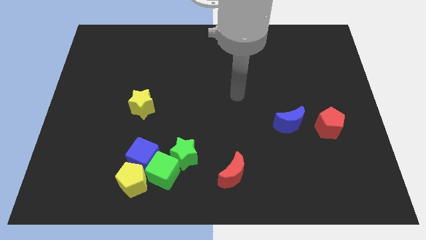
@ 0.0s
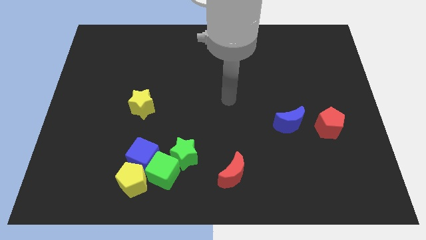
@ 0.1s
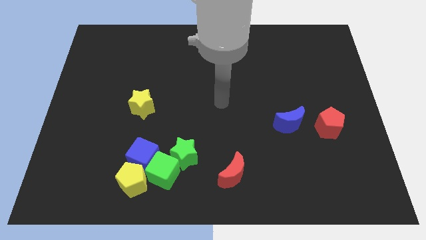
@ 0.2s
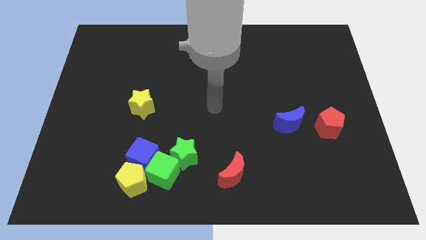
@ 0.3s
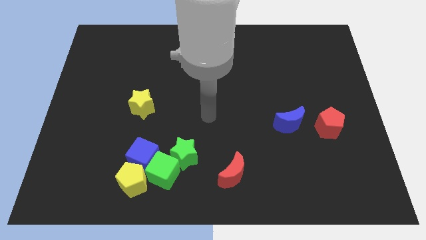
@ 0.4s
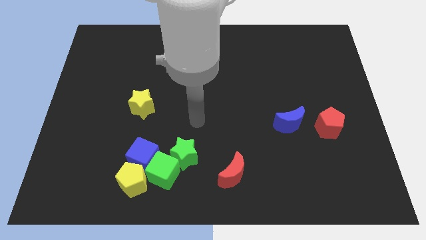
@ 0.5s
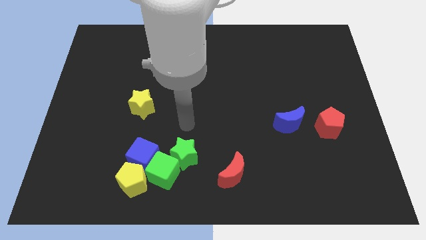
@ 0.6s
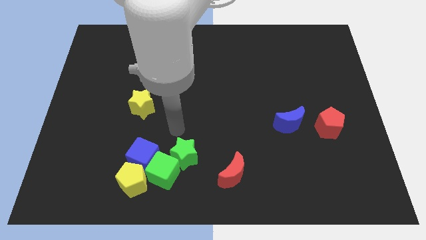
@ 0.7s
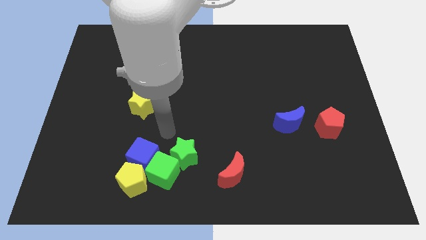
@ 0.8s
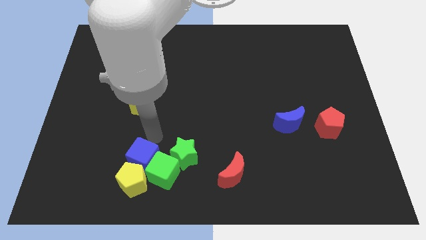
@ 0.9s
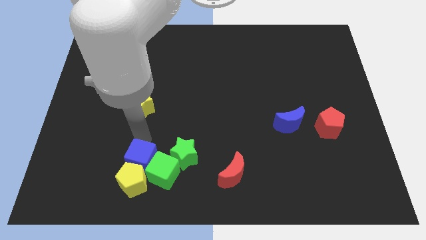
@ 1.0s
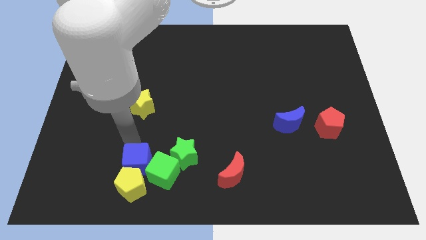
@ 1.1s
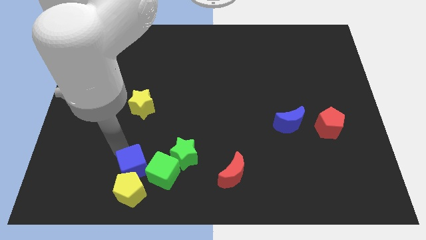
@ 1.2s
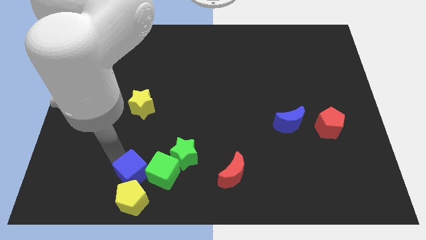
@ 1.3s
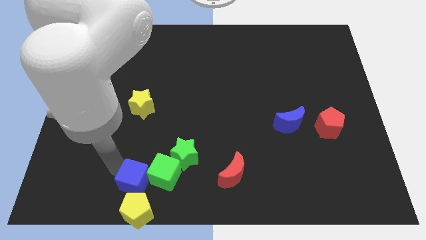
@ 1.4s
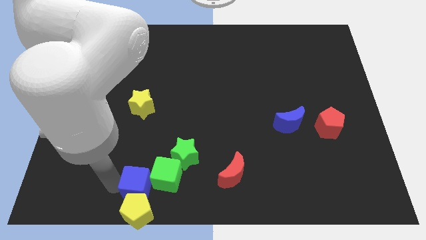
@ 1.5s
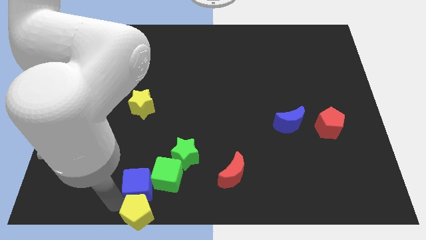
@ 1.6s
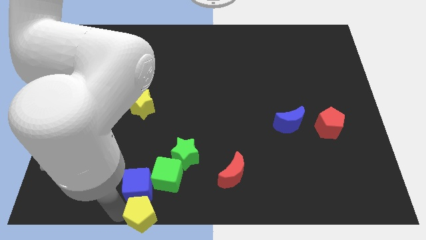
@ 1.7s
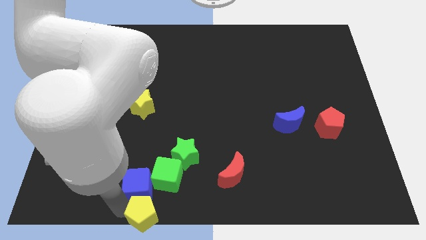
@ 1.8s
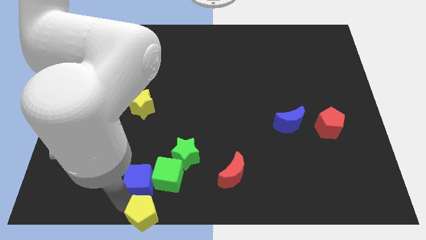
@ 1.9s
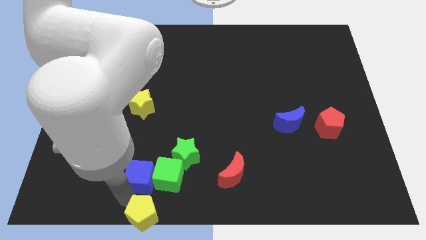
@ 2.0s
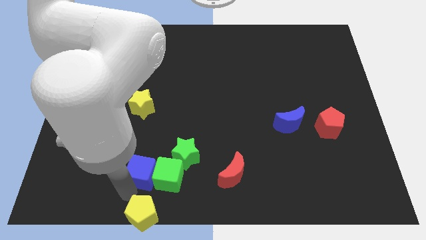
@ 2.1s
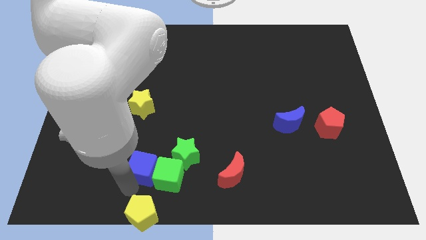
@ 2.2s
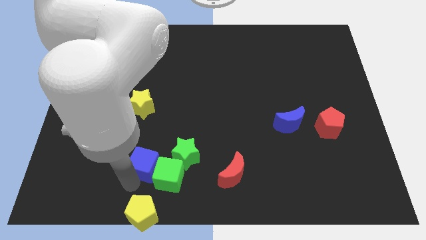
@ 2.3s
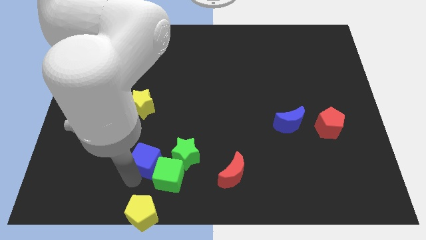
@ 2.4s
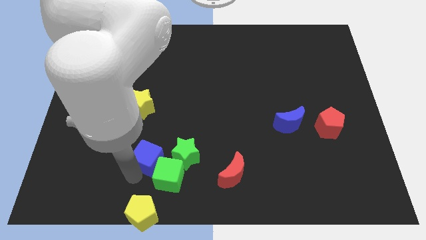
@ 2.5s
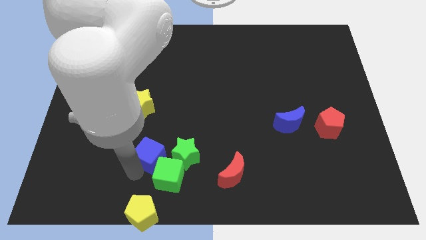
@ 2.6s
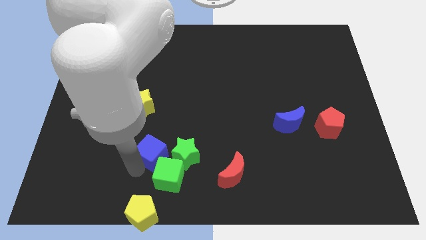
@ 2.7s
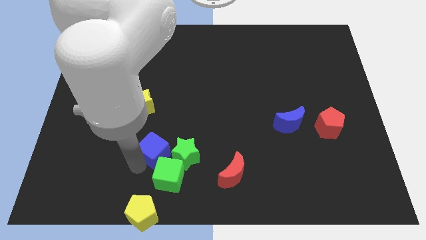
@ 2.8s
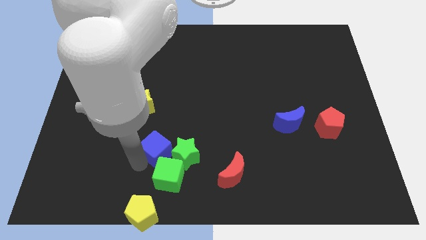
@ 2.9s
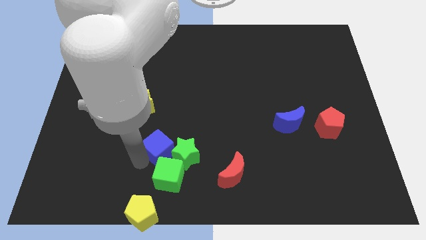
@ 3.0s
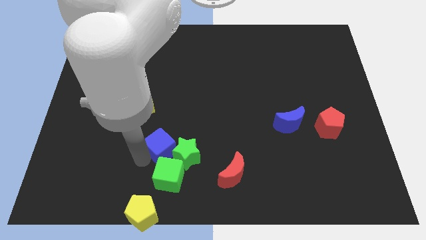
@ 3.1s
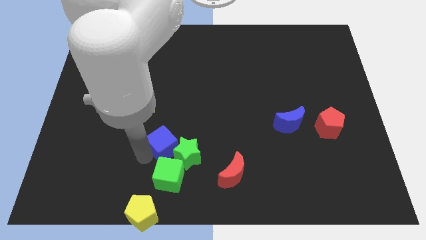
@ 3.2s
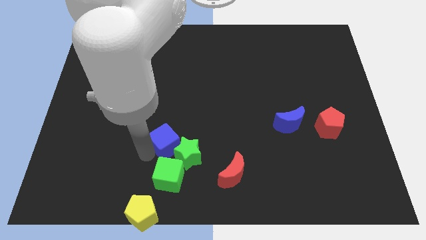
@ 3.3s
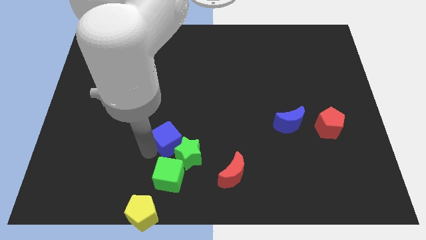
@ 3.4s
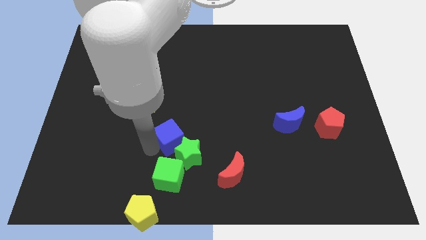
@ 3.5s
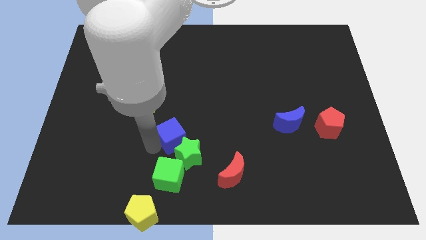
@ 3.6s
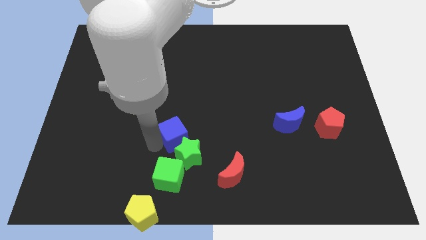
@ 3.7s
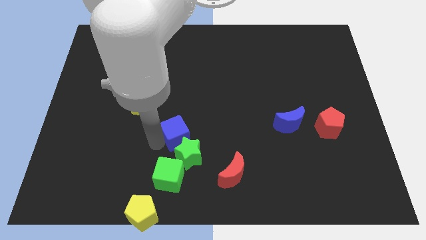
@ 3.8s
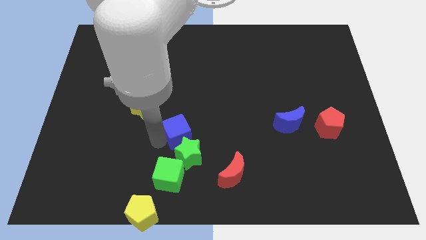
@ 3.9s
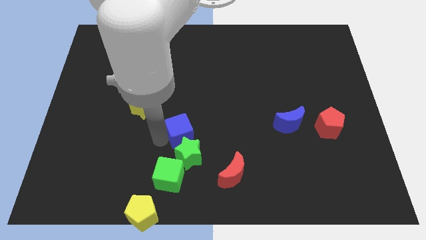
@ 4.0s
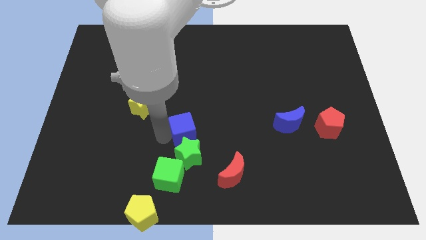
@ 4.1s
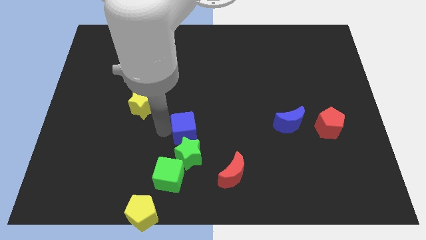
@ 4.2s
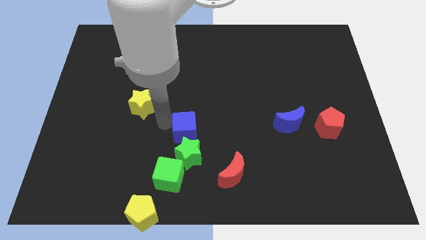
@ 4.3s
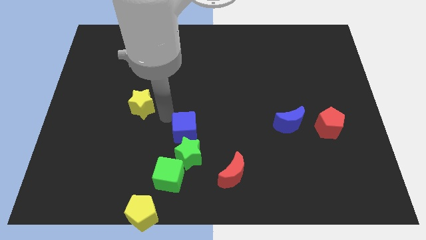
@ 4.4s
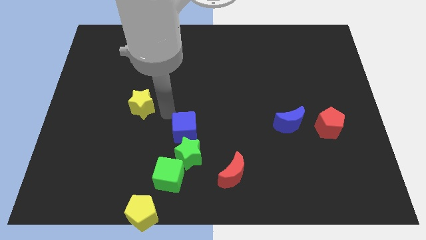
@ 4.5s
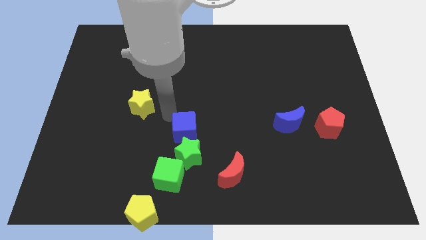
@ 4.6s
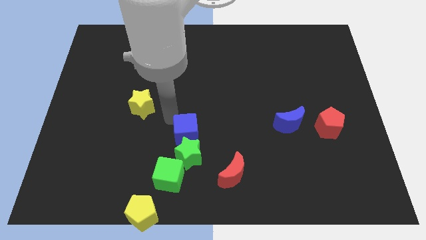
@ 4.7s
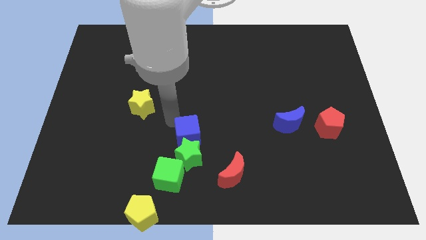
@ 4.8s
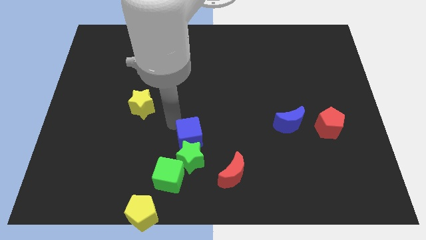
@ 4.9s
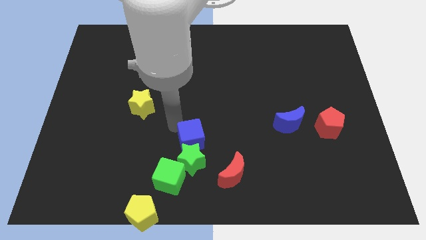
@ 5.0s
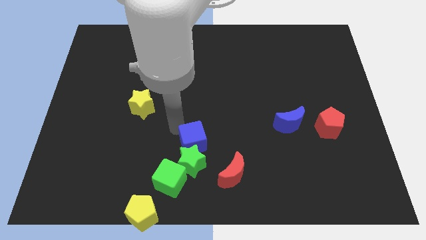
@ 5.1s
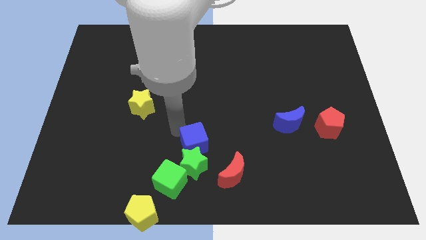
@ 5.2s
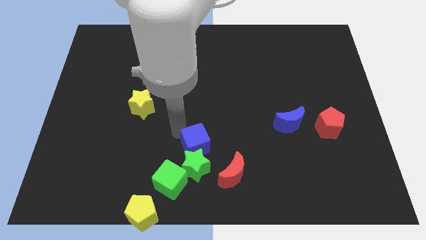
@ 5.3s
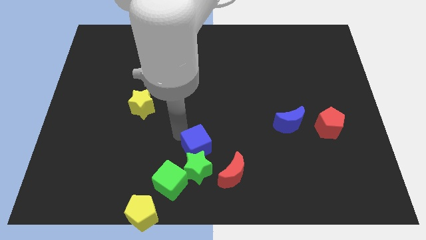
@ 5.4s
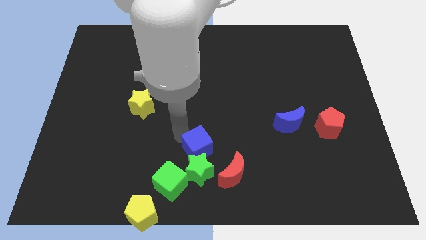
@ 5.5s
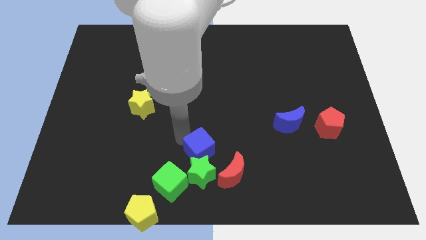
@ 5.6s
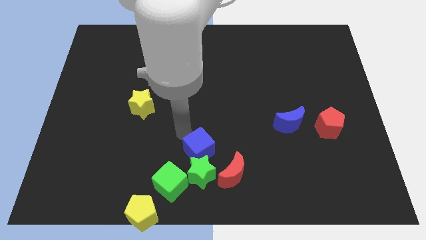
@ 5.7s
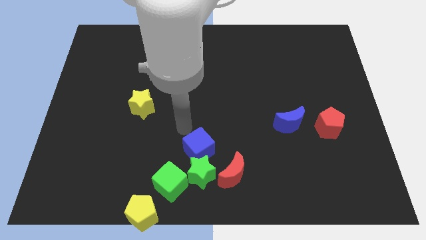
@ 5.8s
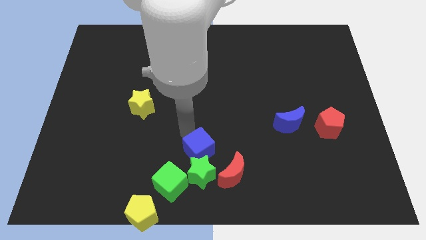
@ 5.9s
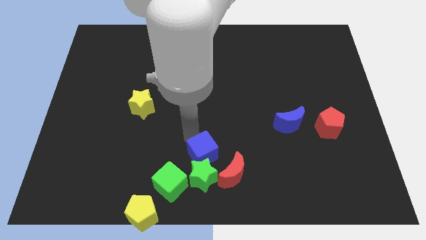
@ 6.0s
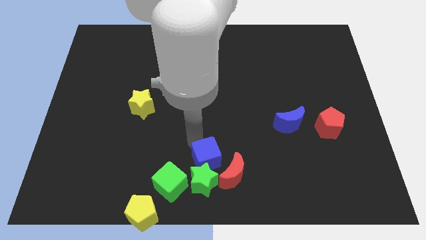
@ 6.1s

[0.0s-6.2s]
push the blue cube to the bottom

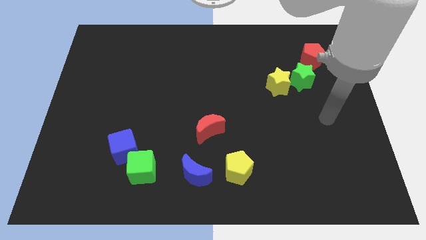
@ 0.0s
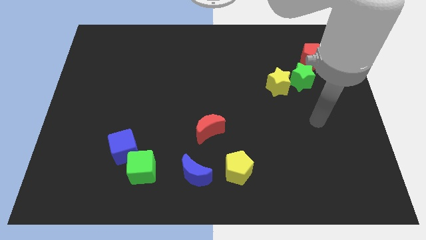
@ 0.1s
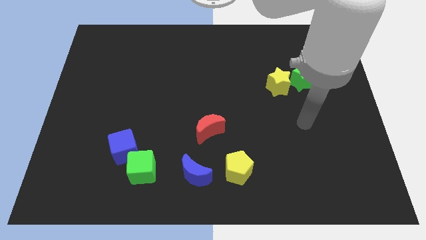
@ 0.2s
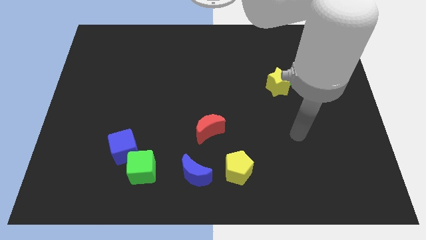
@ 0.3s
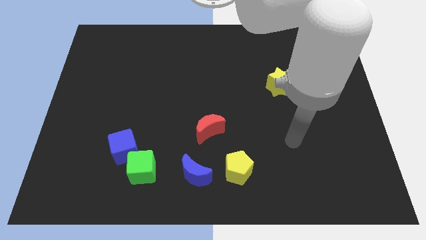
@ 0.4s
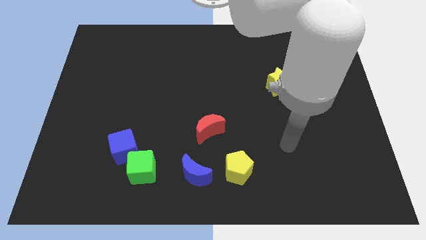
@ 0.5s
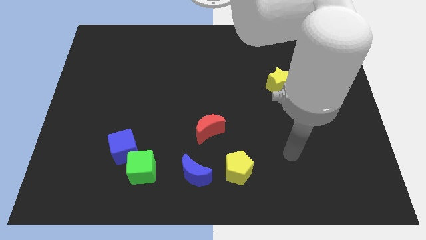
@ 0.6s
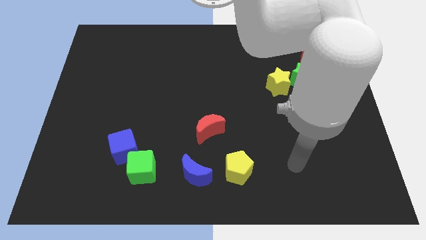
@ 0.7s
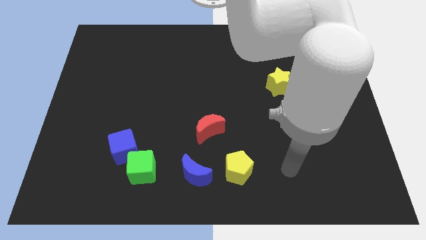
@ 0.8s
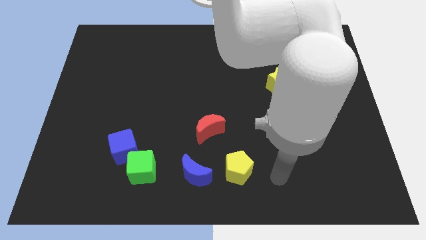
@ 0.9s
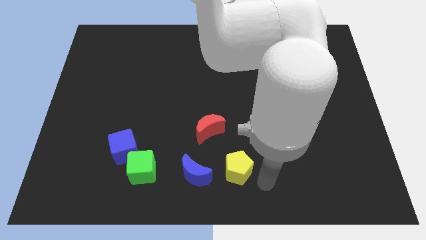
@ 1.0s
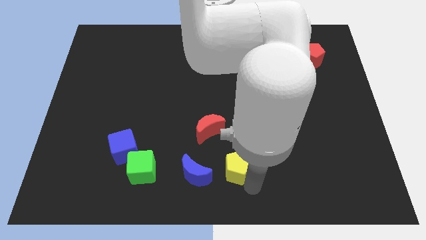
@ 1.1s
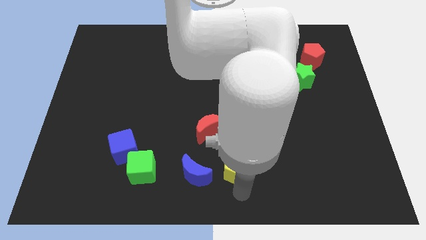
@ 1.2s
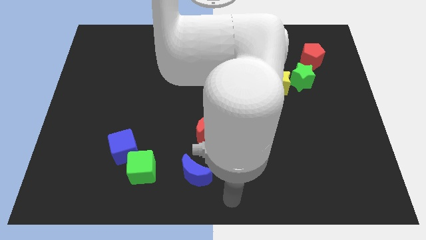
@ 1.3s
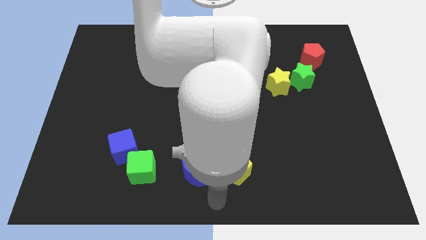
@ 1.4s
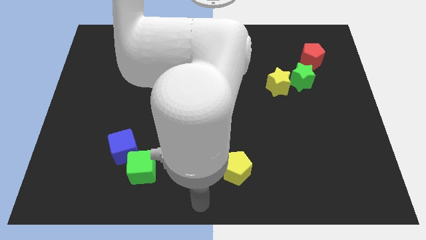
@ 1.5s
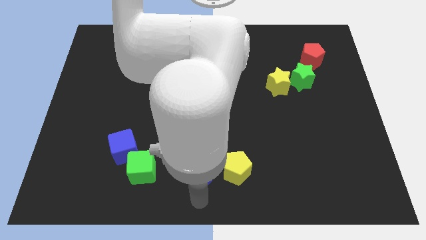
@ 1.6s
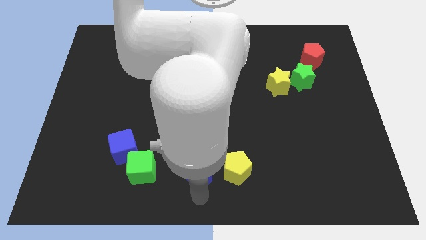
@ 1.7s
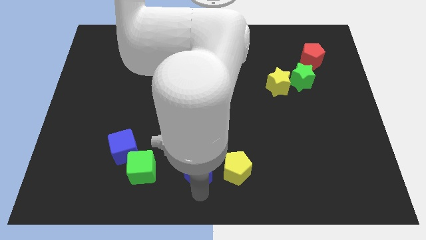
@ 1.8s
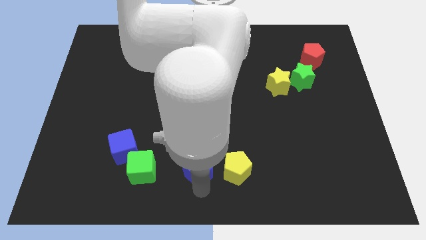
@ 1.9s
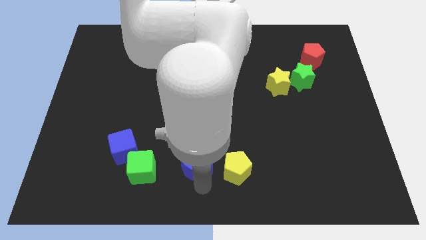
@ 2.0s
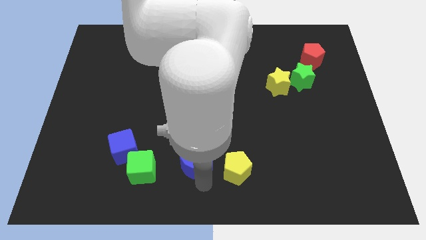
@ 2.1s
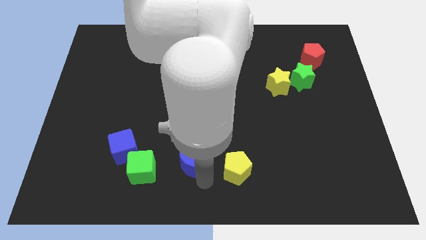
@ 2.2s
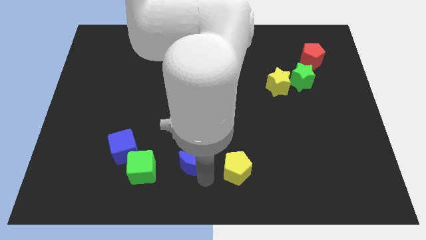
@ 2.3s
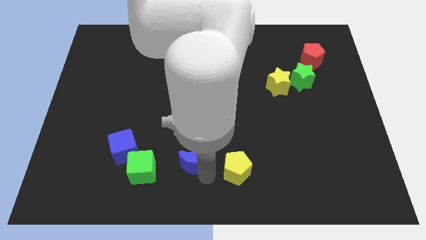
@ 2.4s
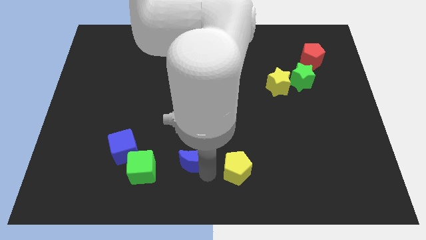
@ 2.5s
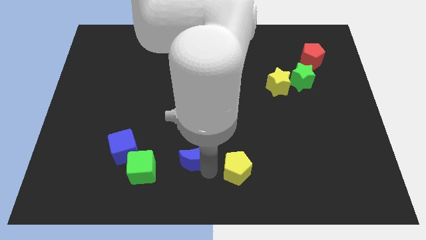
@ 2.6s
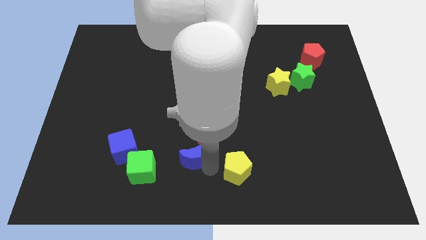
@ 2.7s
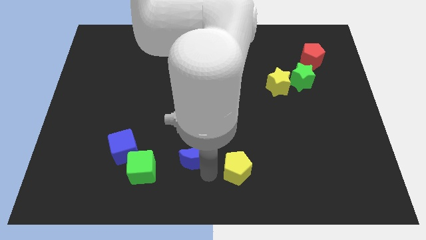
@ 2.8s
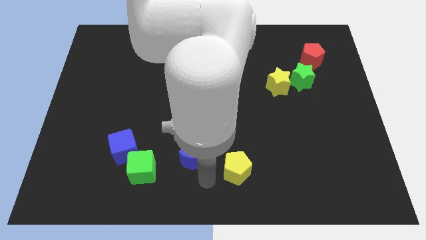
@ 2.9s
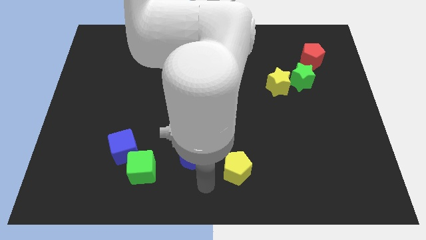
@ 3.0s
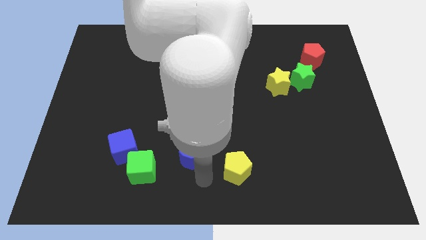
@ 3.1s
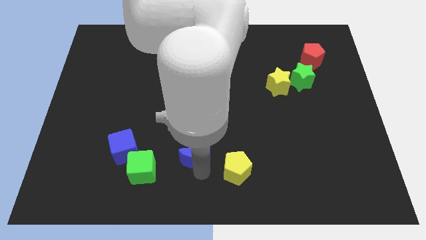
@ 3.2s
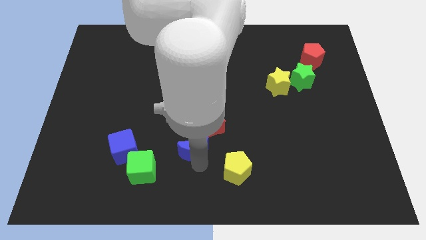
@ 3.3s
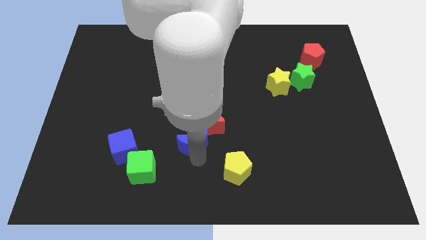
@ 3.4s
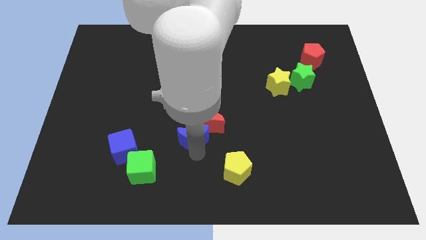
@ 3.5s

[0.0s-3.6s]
move the blue moon to the center
